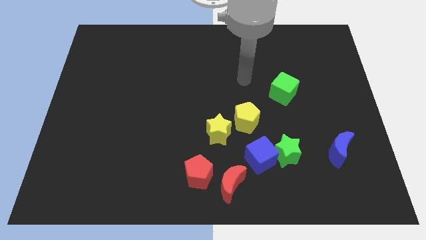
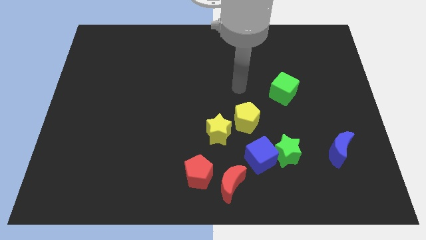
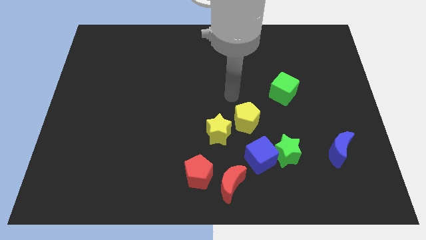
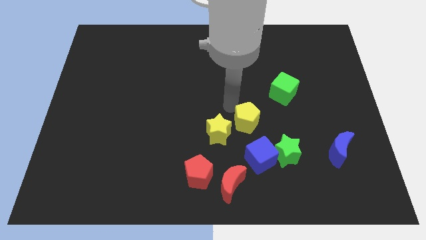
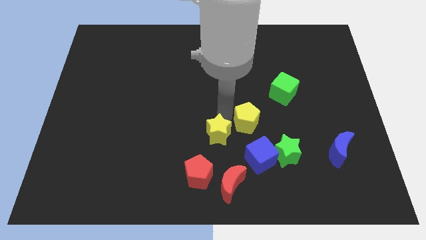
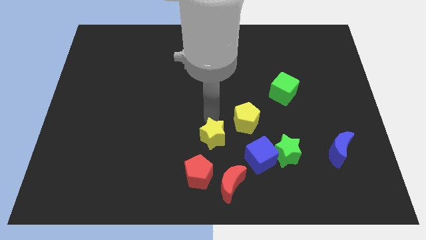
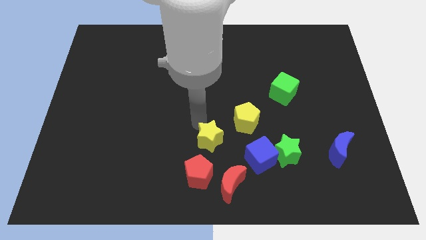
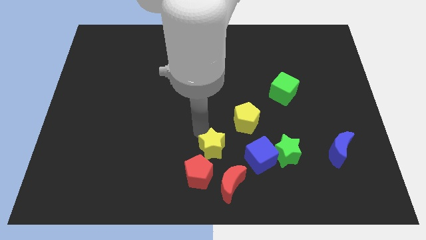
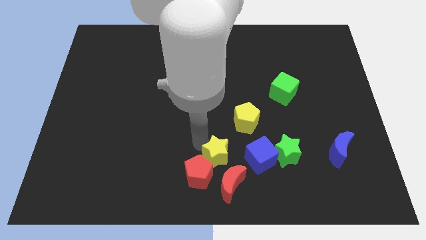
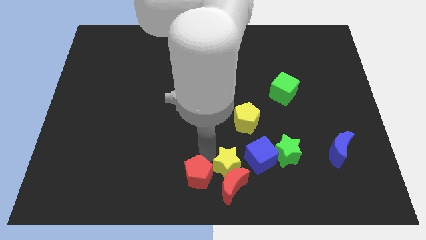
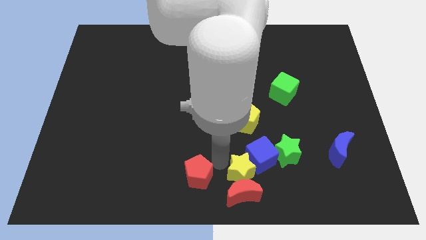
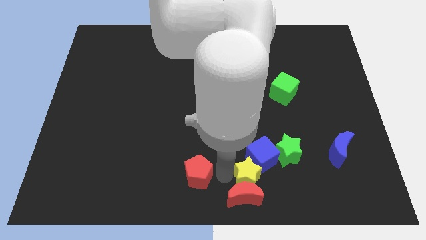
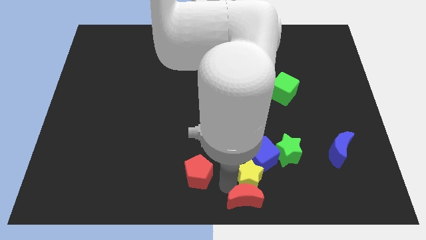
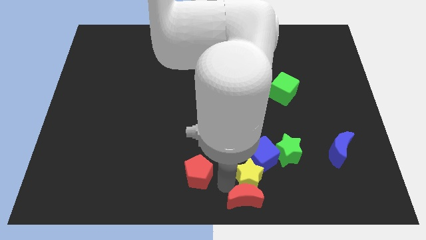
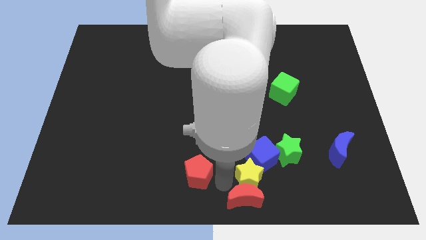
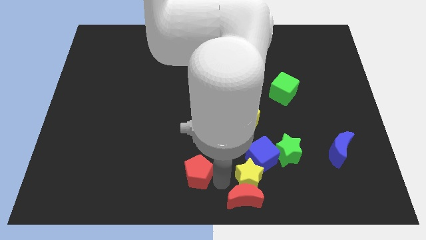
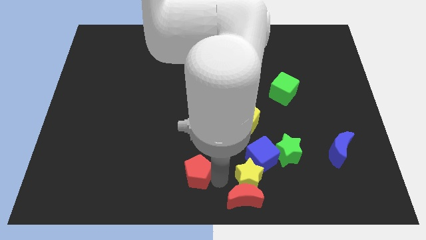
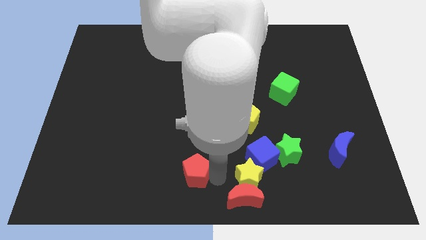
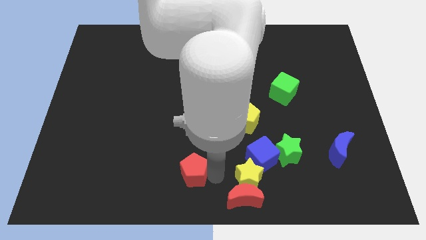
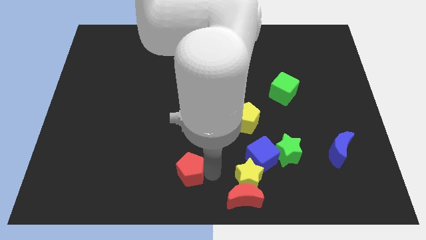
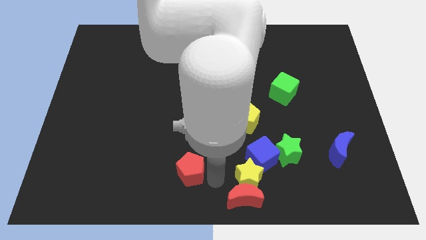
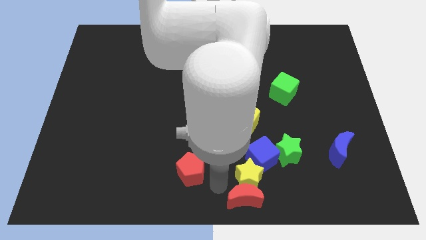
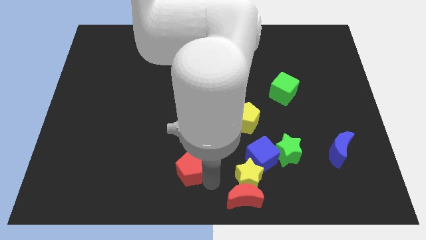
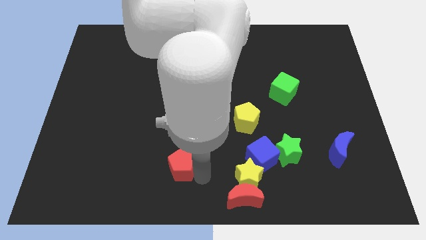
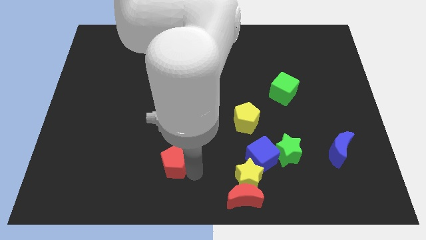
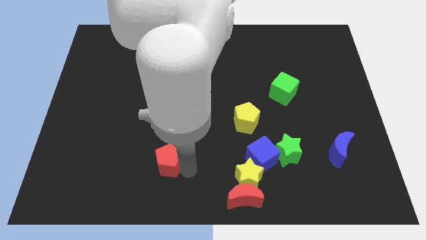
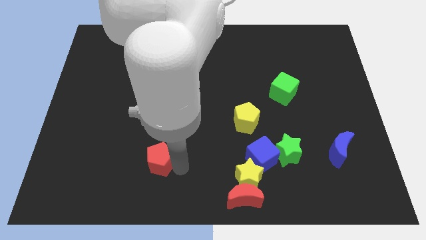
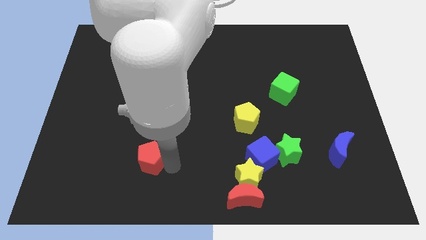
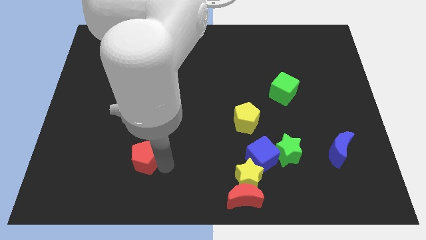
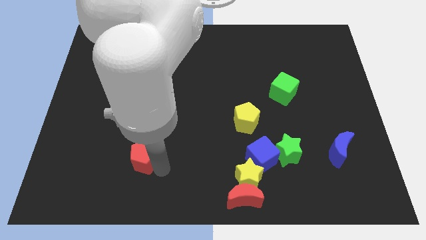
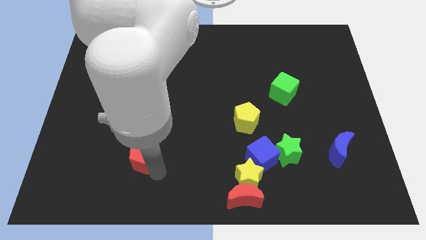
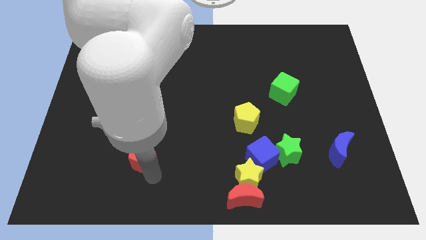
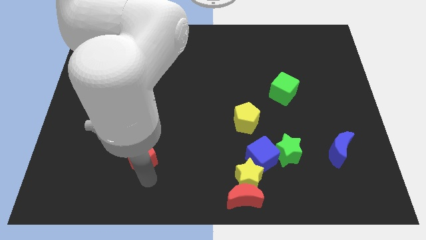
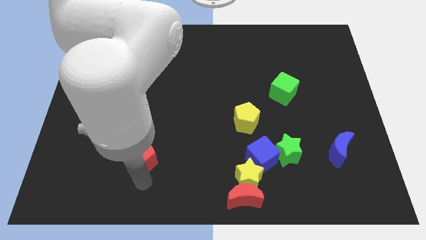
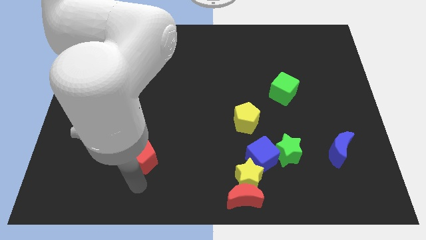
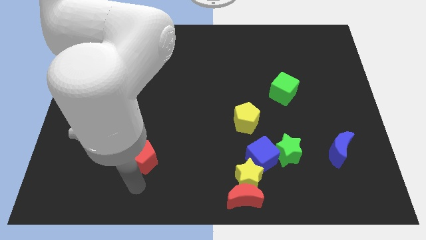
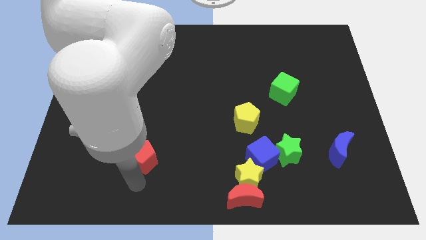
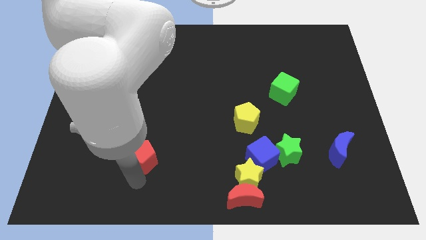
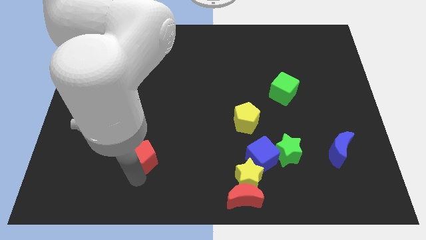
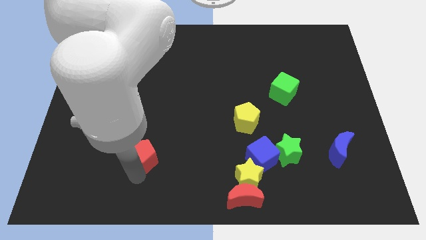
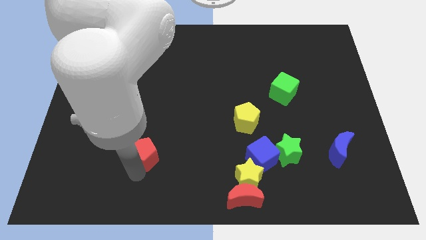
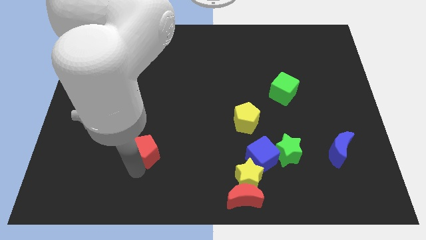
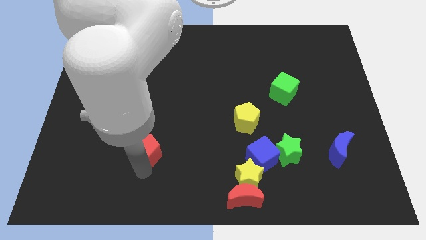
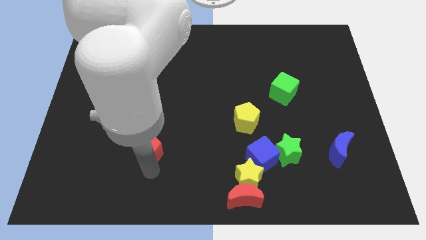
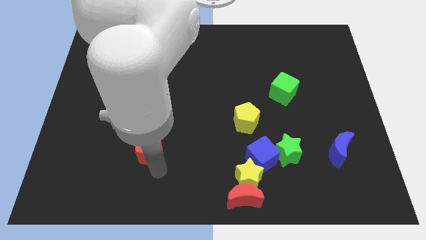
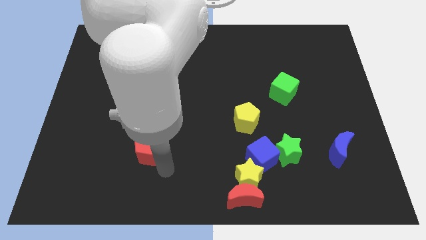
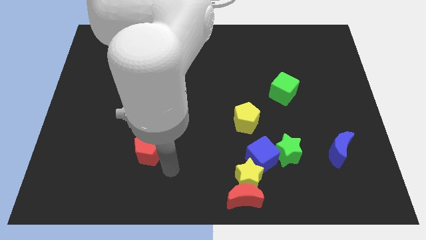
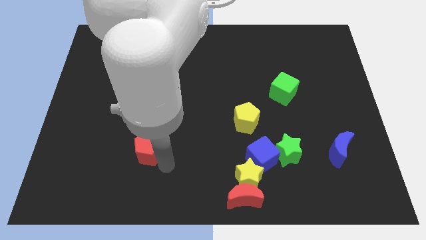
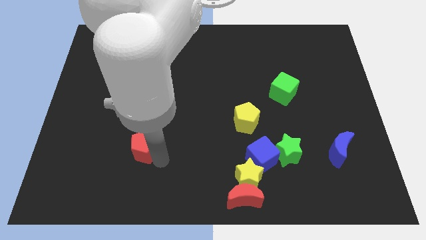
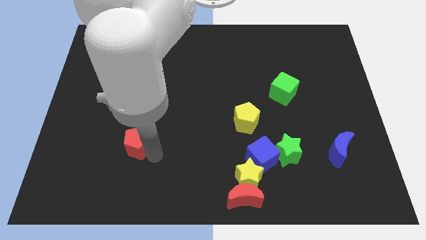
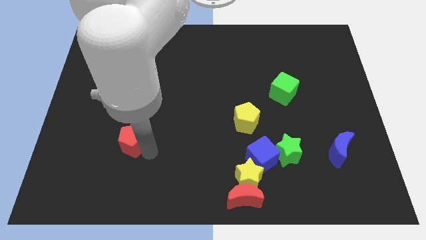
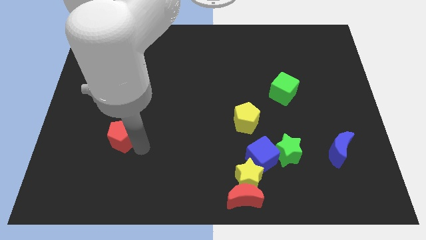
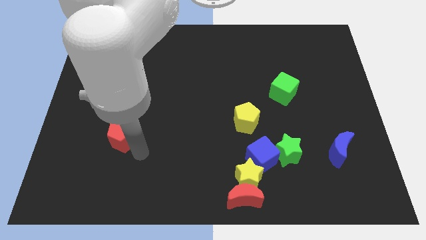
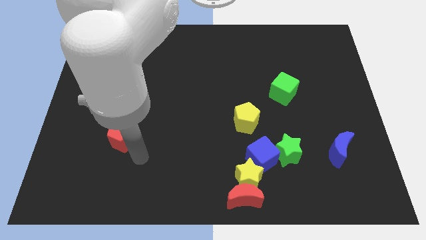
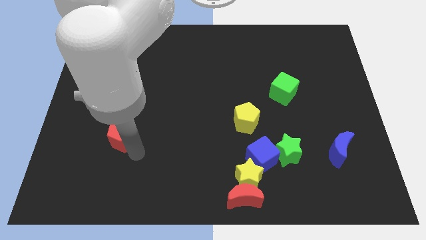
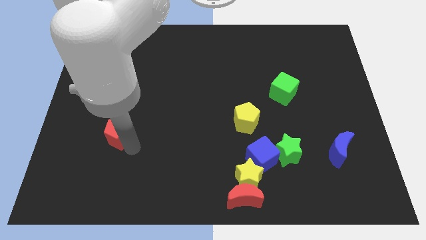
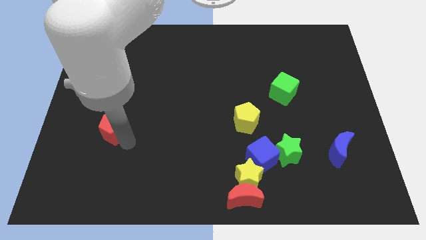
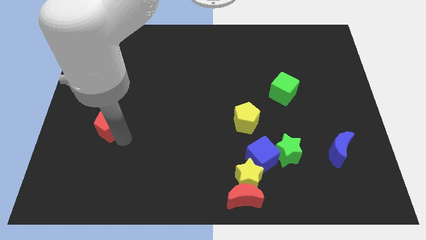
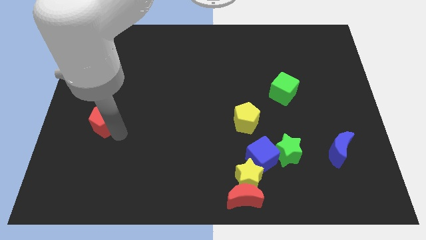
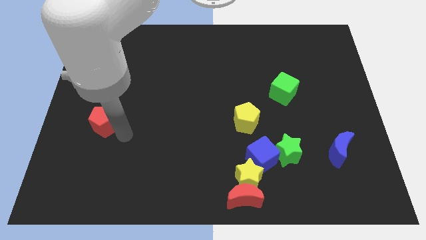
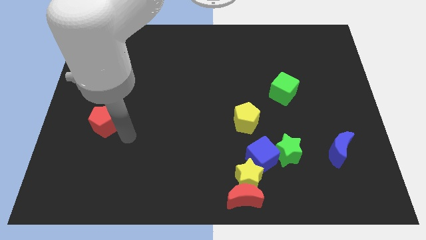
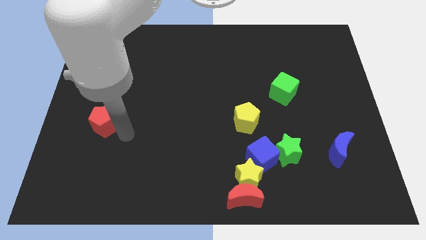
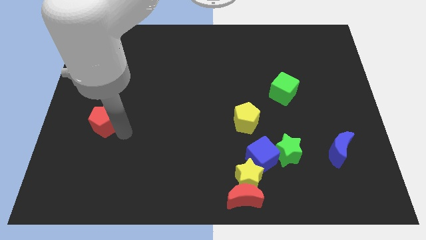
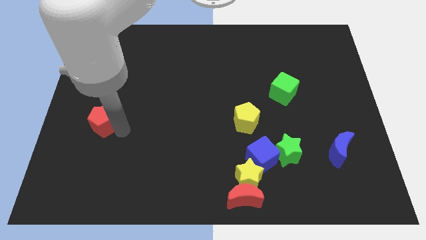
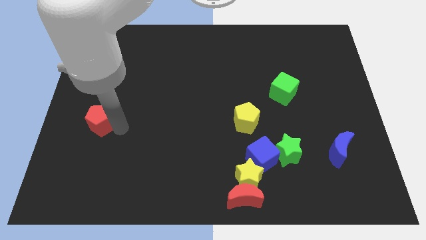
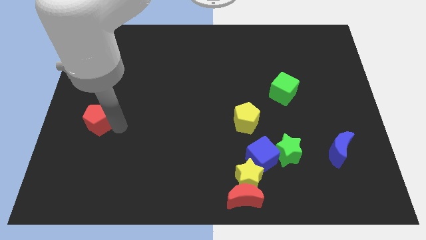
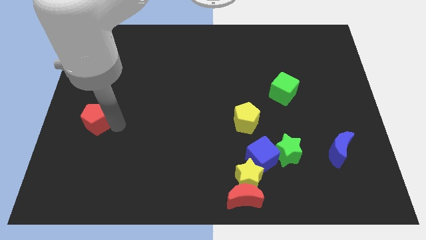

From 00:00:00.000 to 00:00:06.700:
push the red pentagon to the left side of the board
